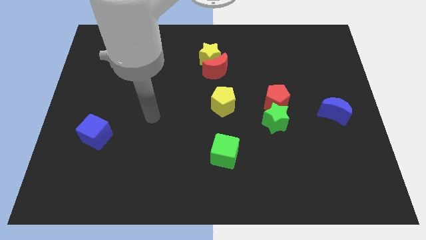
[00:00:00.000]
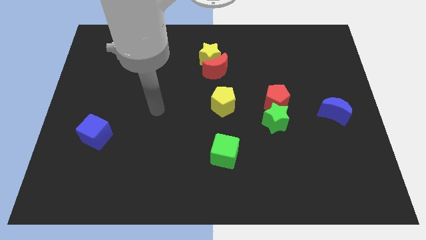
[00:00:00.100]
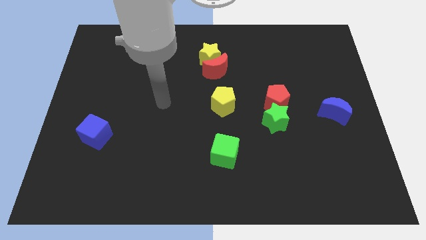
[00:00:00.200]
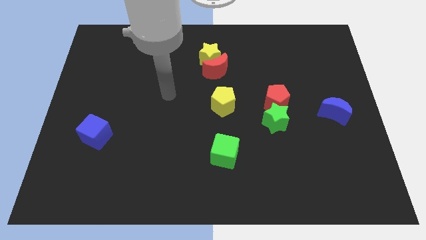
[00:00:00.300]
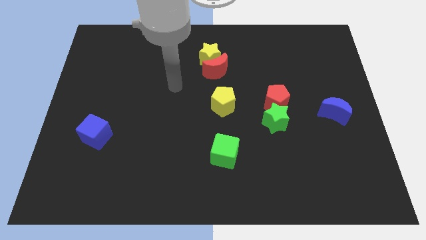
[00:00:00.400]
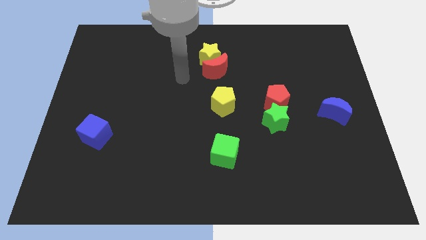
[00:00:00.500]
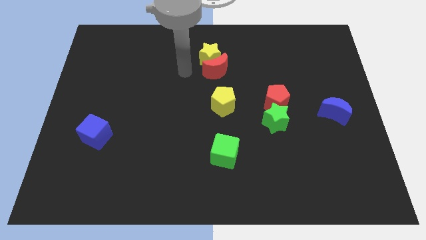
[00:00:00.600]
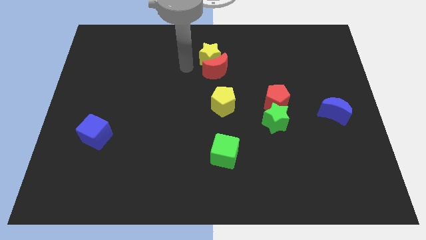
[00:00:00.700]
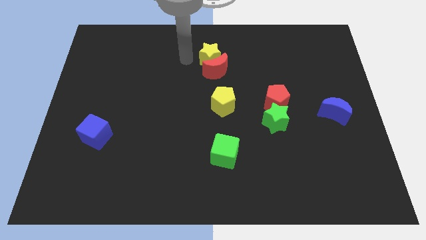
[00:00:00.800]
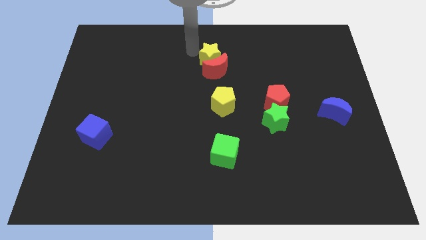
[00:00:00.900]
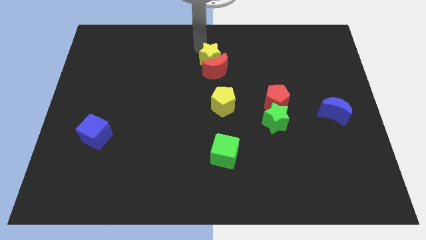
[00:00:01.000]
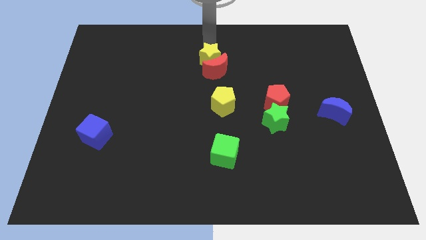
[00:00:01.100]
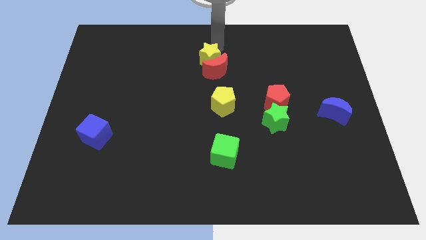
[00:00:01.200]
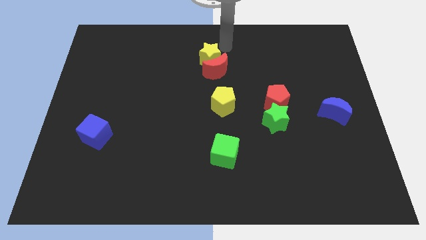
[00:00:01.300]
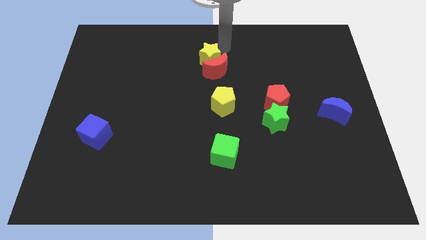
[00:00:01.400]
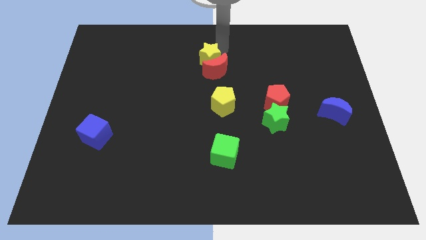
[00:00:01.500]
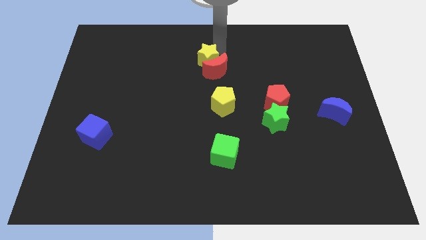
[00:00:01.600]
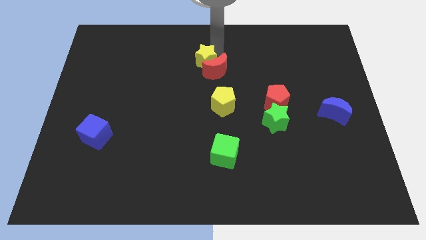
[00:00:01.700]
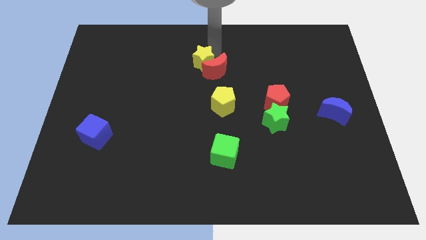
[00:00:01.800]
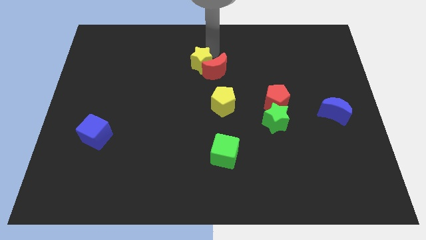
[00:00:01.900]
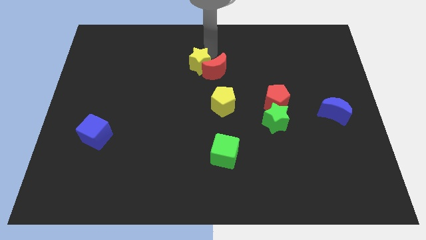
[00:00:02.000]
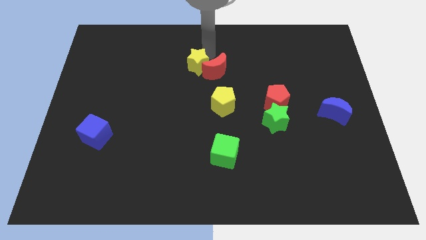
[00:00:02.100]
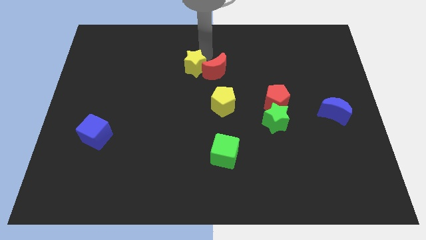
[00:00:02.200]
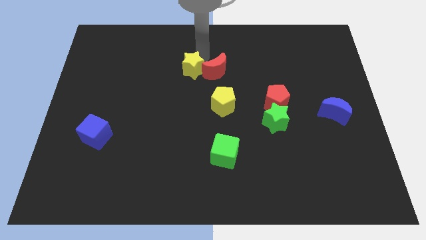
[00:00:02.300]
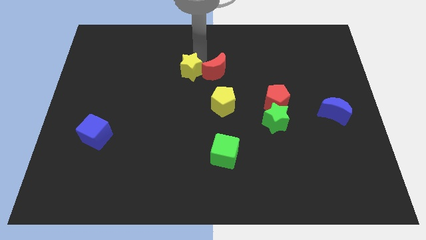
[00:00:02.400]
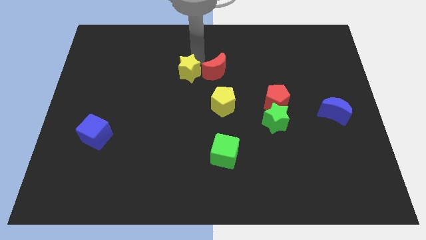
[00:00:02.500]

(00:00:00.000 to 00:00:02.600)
slightly move the yellow star downwards and to the left

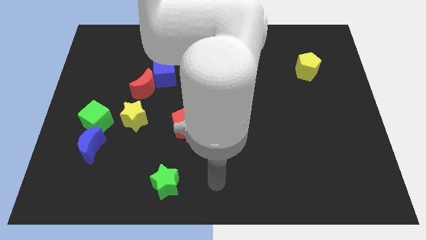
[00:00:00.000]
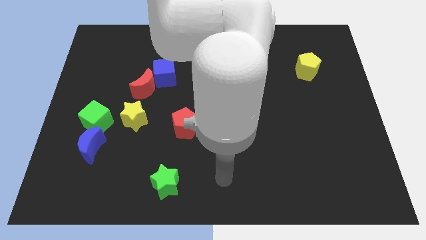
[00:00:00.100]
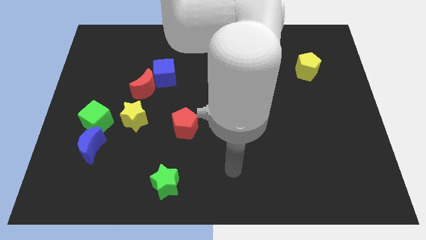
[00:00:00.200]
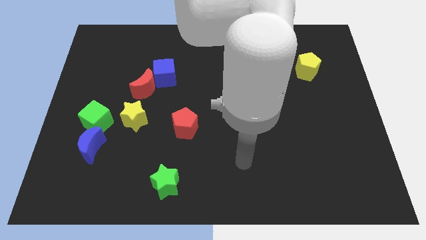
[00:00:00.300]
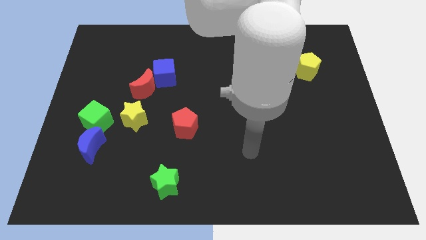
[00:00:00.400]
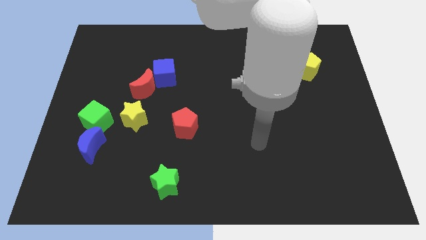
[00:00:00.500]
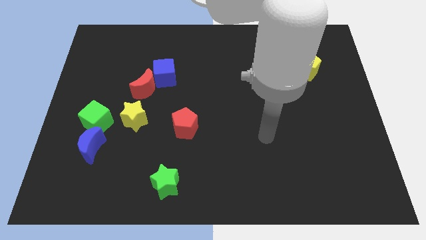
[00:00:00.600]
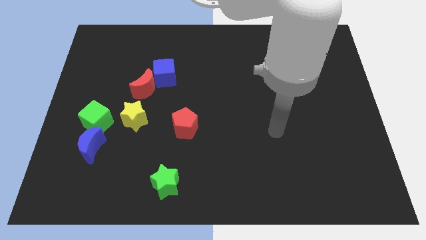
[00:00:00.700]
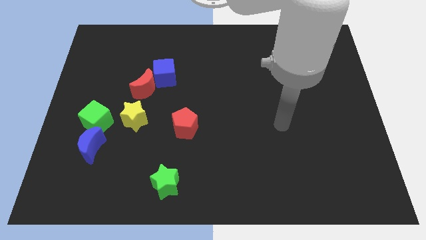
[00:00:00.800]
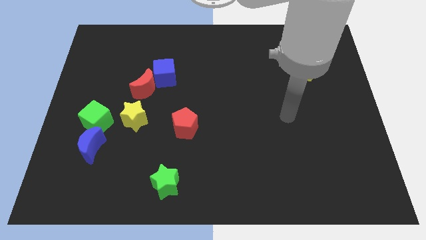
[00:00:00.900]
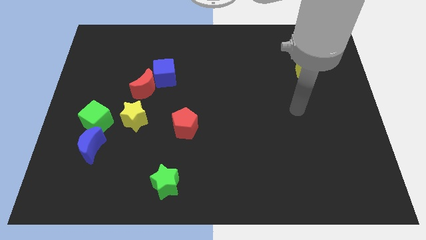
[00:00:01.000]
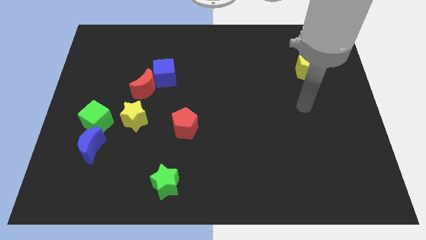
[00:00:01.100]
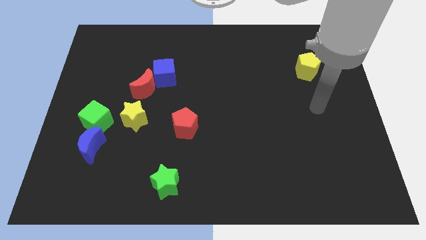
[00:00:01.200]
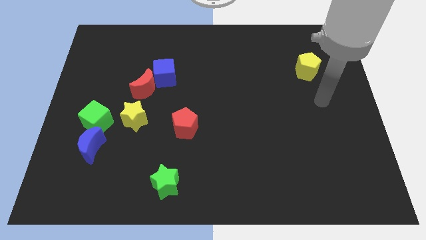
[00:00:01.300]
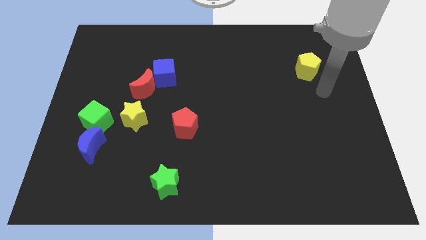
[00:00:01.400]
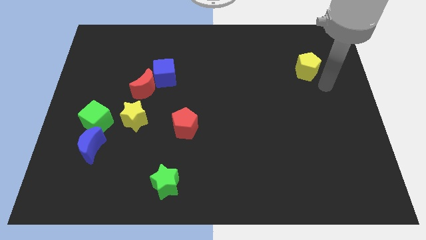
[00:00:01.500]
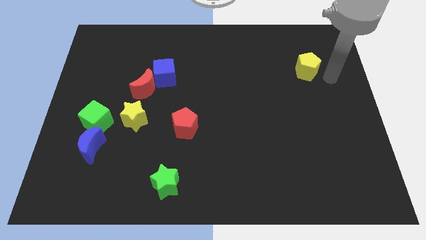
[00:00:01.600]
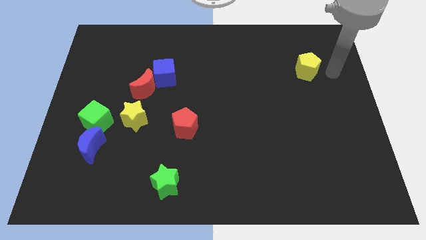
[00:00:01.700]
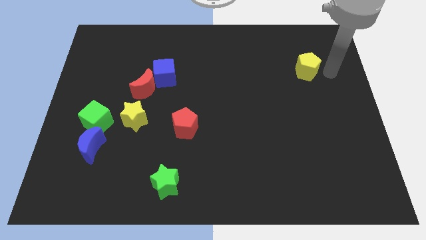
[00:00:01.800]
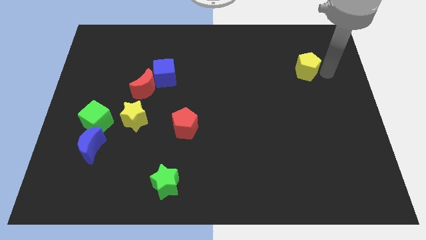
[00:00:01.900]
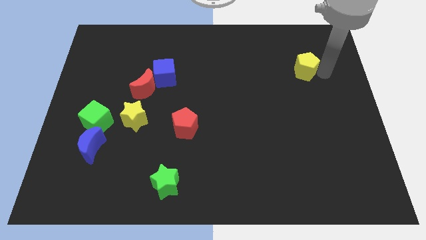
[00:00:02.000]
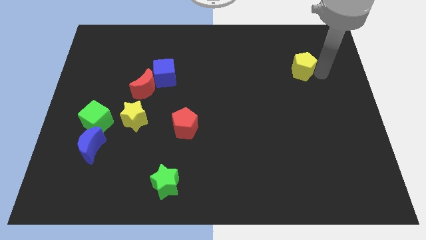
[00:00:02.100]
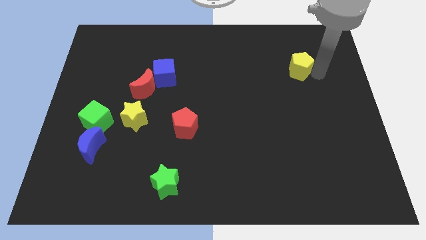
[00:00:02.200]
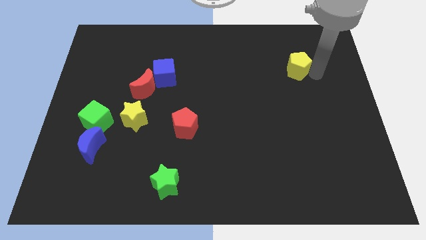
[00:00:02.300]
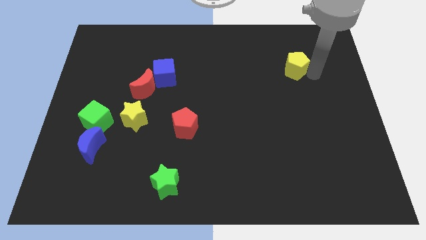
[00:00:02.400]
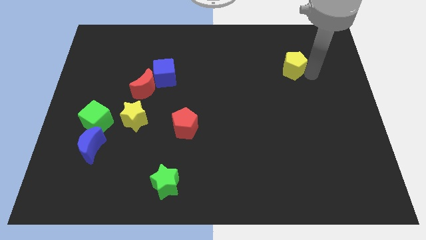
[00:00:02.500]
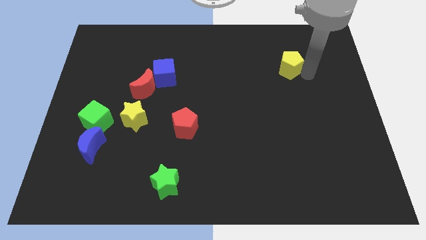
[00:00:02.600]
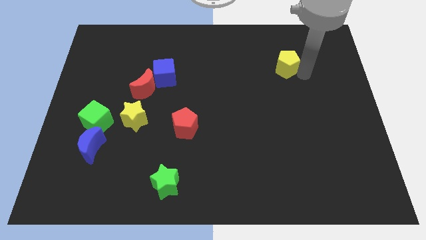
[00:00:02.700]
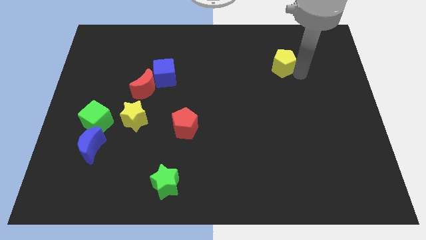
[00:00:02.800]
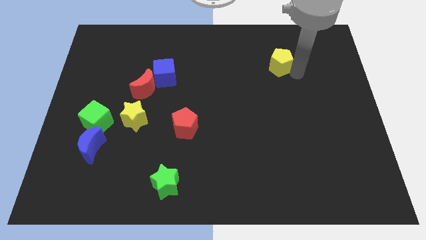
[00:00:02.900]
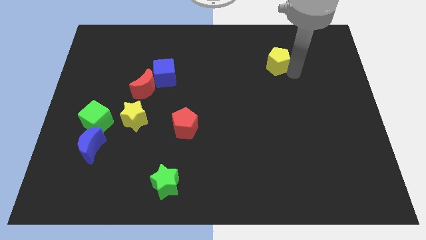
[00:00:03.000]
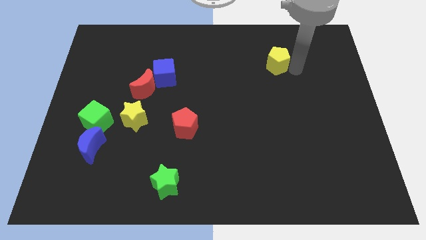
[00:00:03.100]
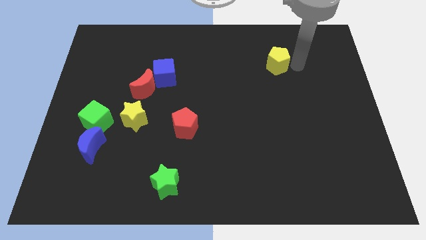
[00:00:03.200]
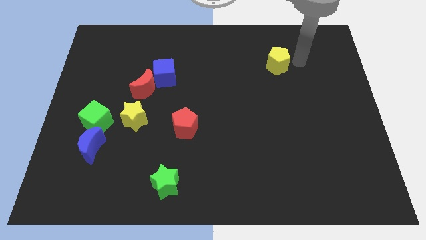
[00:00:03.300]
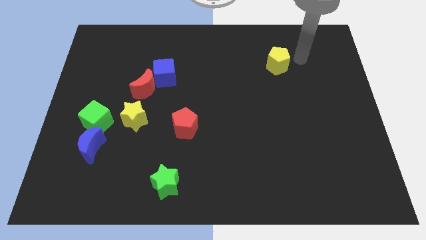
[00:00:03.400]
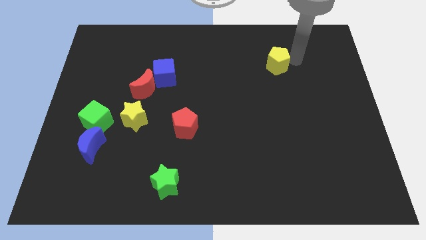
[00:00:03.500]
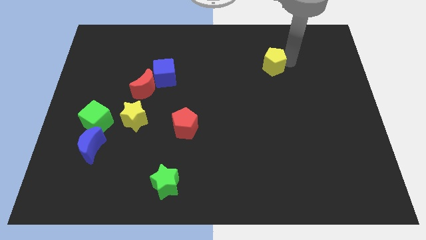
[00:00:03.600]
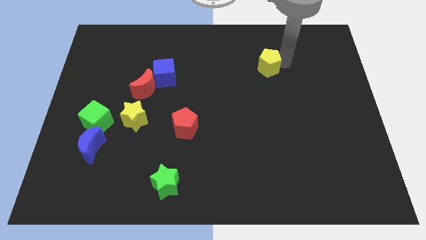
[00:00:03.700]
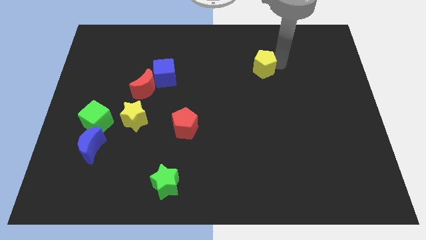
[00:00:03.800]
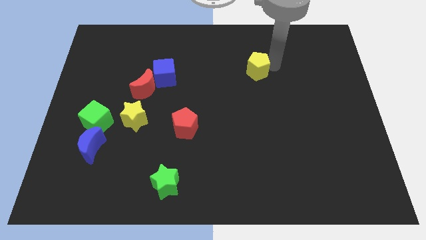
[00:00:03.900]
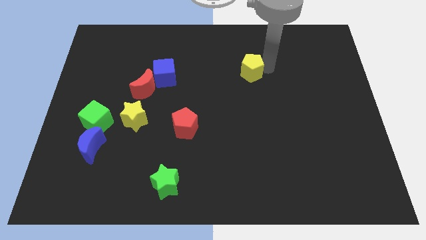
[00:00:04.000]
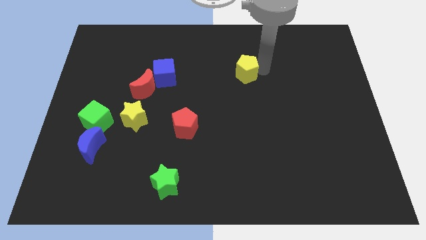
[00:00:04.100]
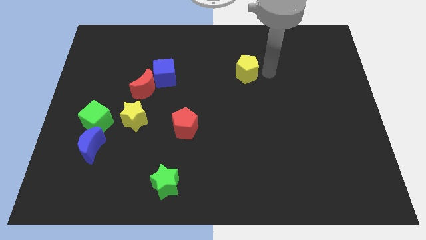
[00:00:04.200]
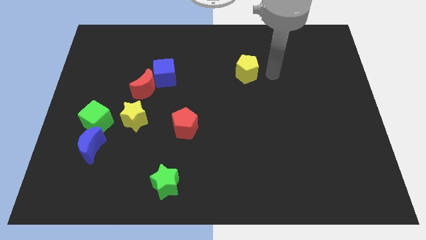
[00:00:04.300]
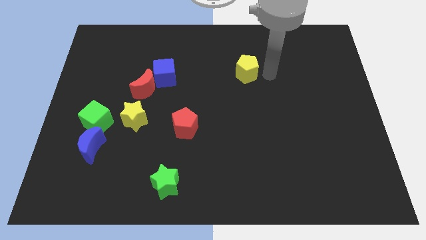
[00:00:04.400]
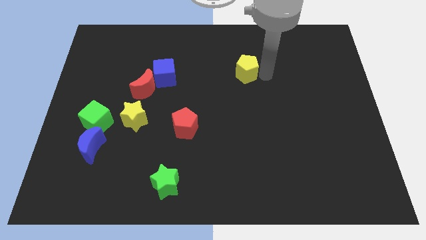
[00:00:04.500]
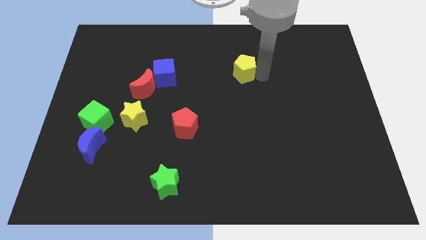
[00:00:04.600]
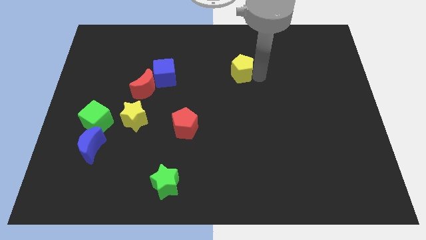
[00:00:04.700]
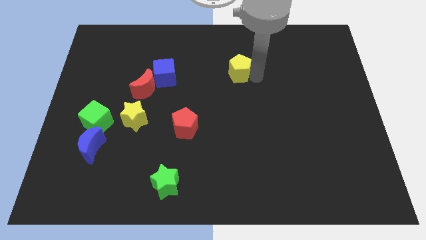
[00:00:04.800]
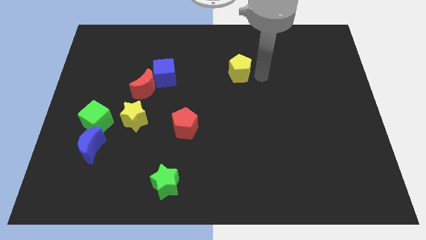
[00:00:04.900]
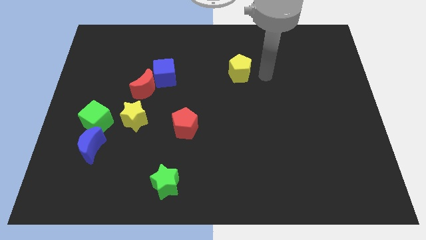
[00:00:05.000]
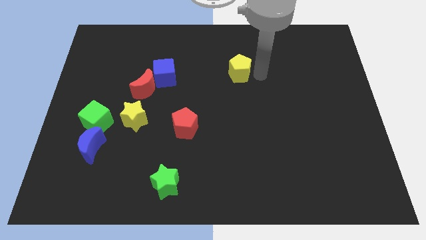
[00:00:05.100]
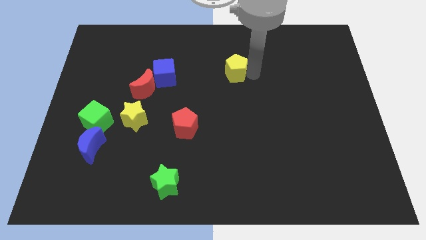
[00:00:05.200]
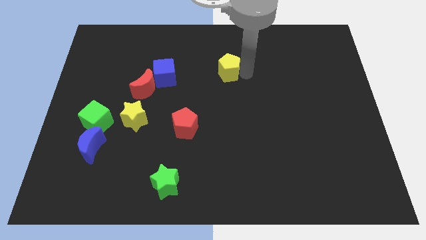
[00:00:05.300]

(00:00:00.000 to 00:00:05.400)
push the yellow pentagon left

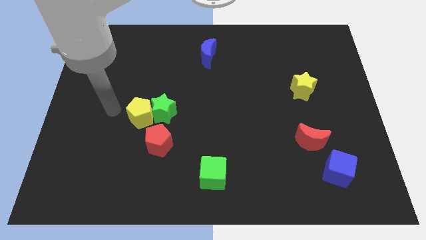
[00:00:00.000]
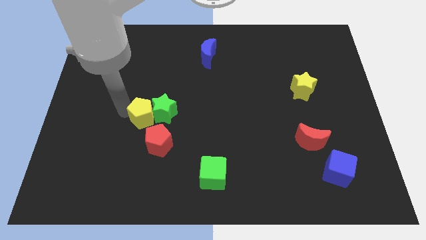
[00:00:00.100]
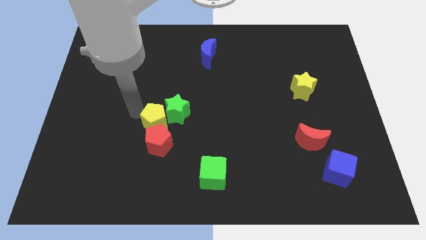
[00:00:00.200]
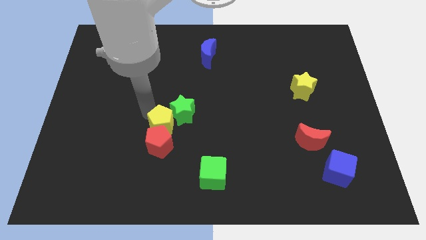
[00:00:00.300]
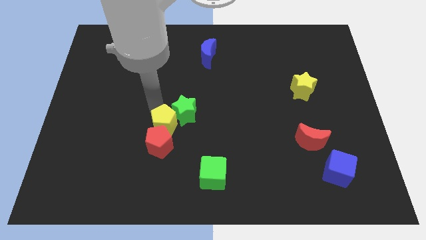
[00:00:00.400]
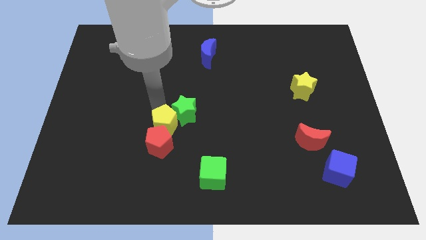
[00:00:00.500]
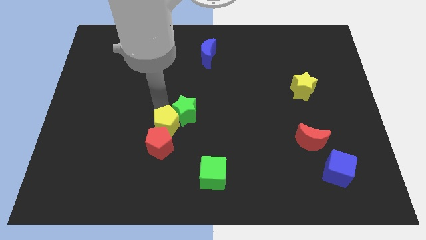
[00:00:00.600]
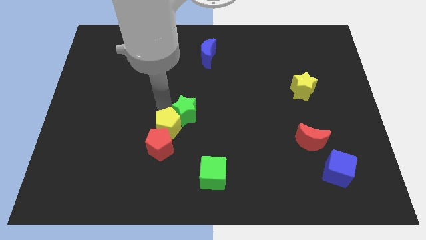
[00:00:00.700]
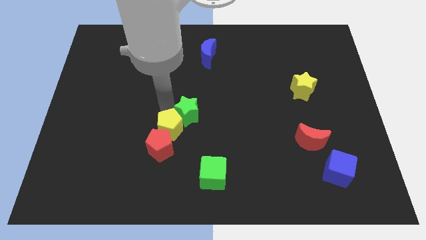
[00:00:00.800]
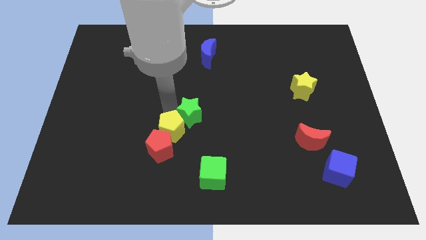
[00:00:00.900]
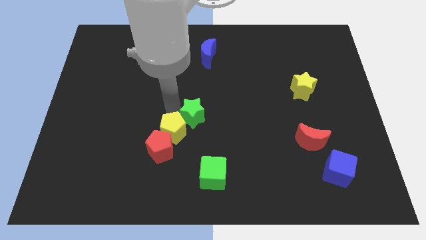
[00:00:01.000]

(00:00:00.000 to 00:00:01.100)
move the green star right a little
